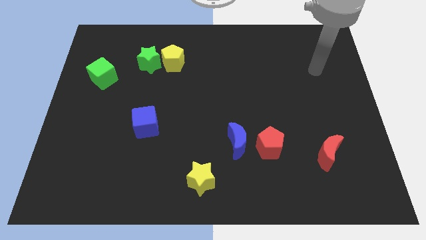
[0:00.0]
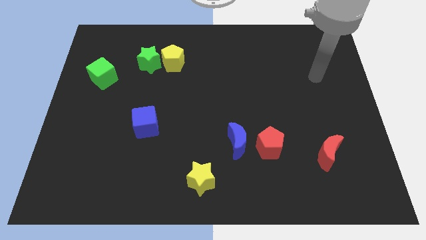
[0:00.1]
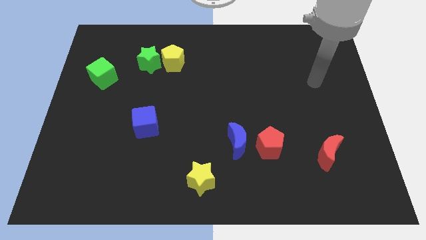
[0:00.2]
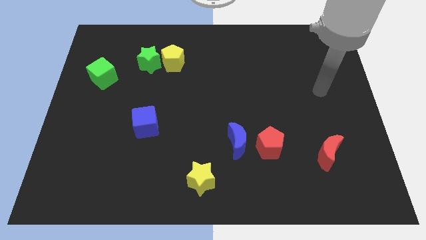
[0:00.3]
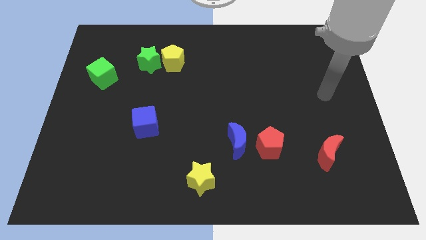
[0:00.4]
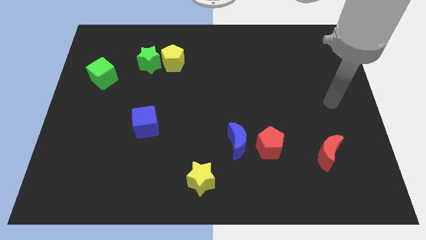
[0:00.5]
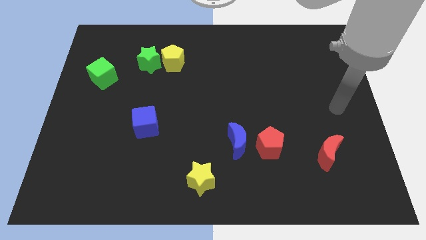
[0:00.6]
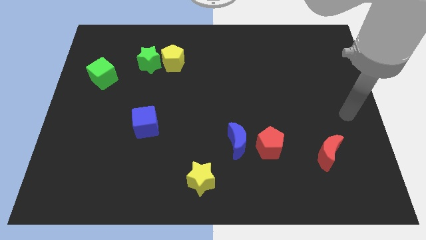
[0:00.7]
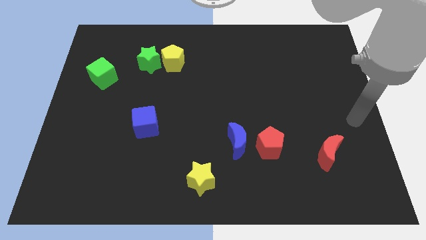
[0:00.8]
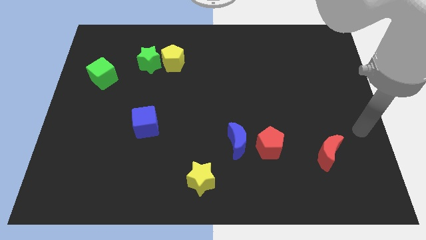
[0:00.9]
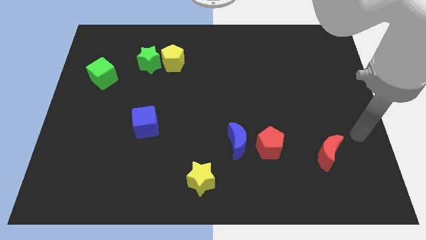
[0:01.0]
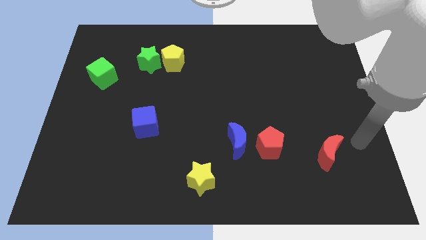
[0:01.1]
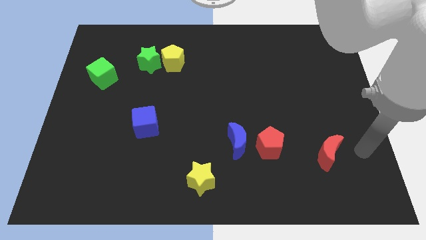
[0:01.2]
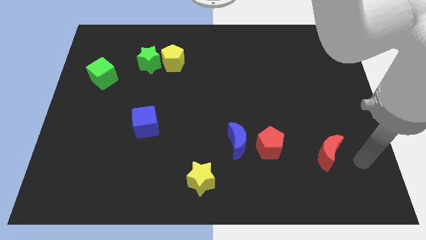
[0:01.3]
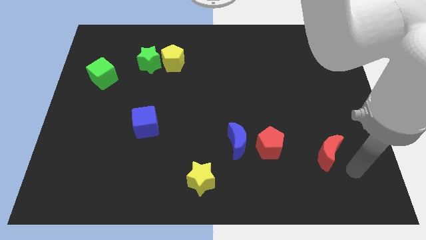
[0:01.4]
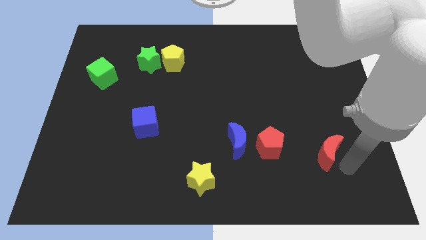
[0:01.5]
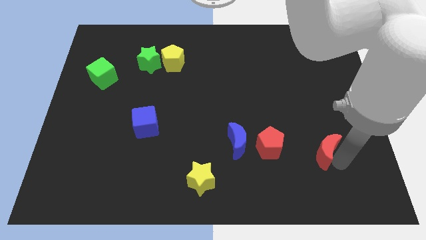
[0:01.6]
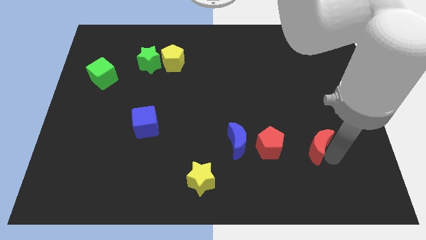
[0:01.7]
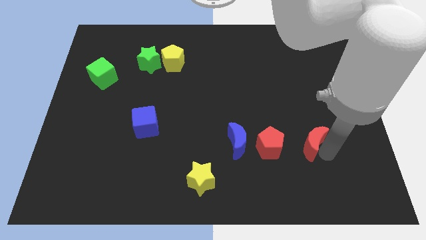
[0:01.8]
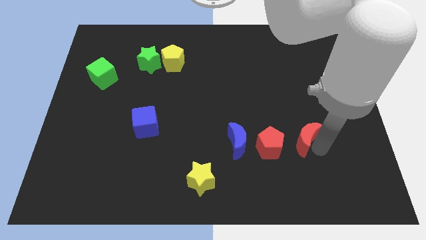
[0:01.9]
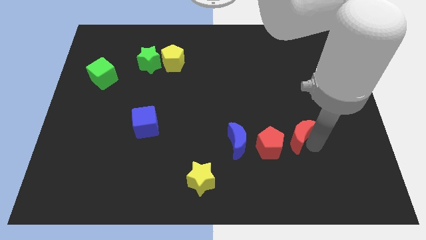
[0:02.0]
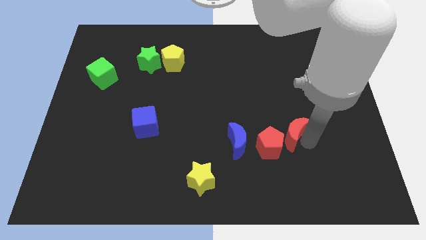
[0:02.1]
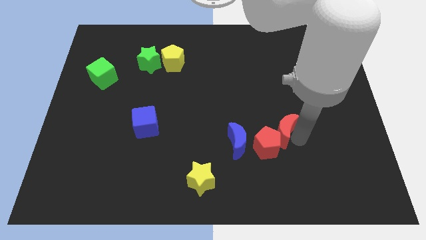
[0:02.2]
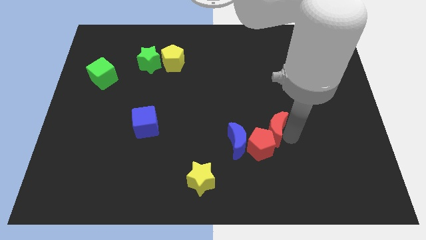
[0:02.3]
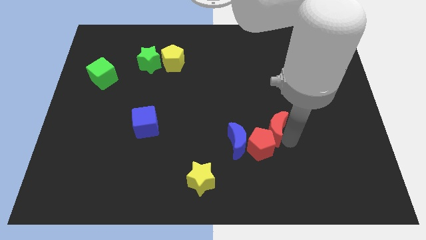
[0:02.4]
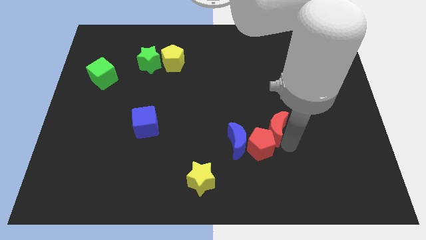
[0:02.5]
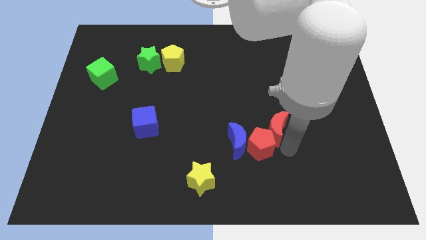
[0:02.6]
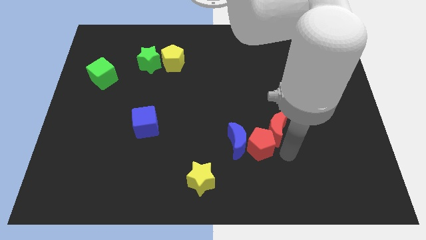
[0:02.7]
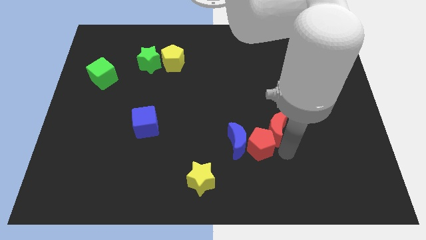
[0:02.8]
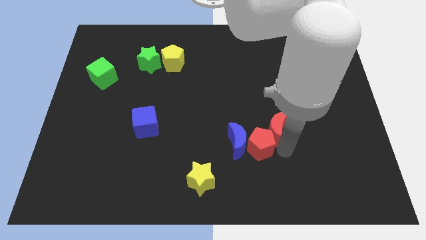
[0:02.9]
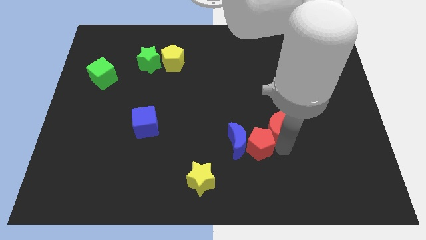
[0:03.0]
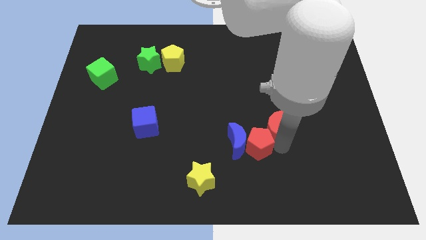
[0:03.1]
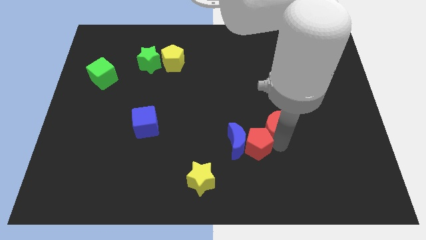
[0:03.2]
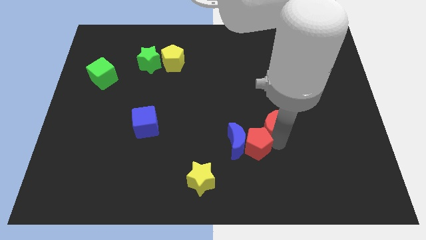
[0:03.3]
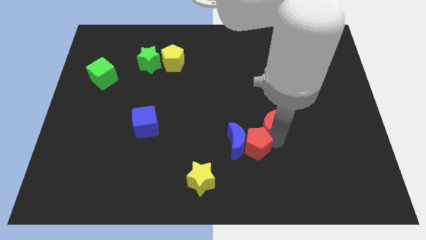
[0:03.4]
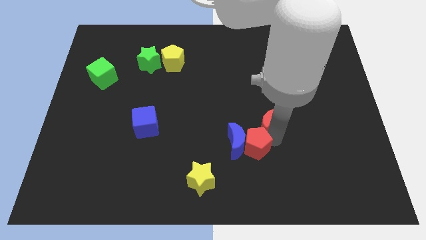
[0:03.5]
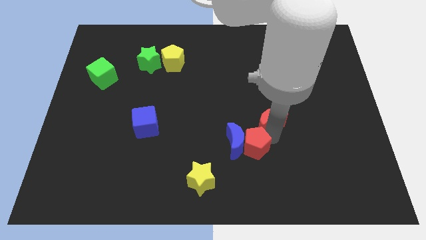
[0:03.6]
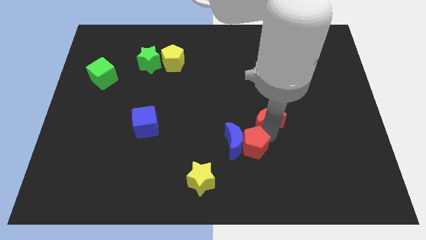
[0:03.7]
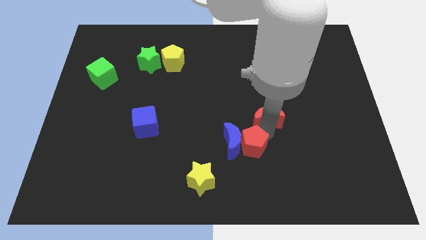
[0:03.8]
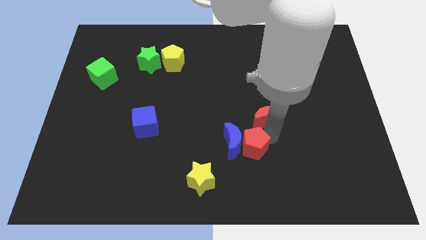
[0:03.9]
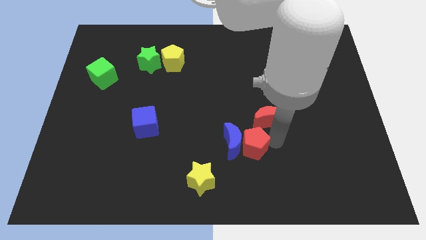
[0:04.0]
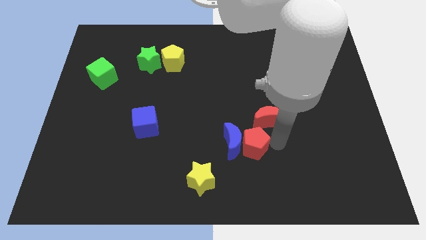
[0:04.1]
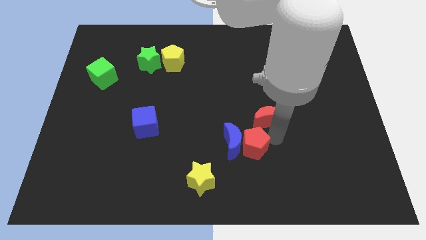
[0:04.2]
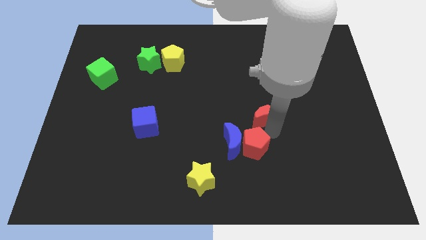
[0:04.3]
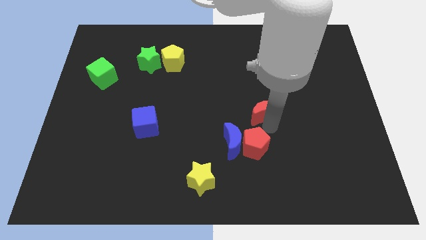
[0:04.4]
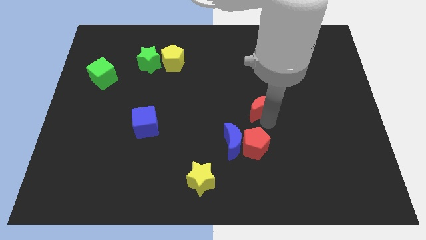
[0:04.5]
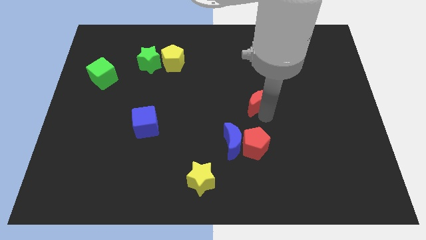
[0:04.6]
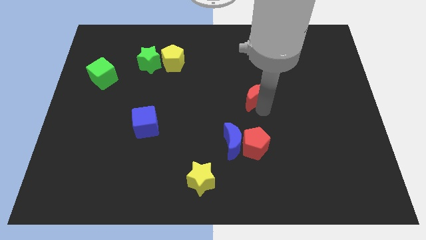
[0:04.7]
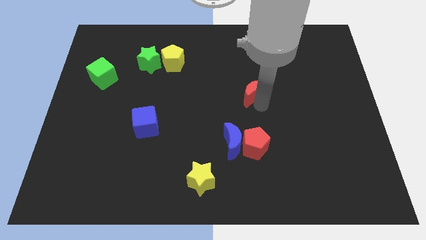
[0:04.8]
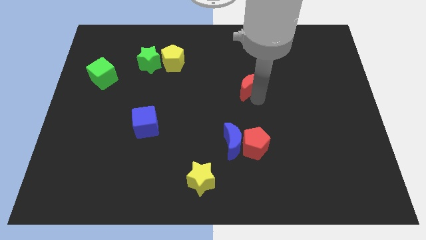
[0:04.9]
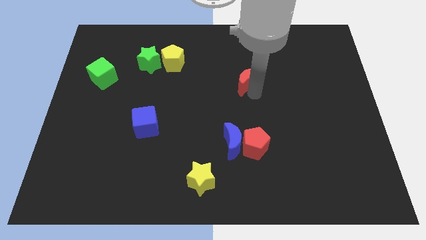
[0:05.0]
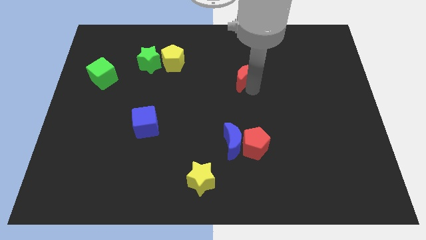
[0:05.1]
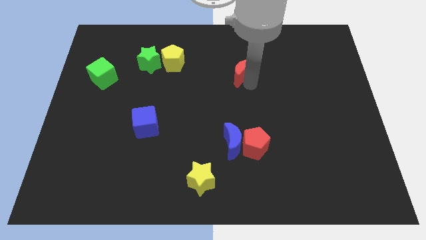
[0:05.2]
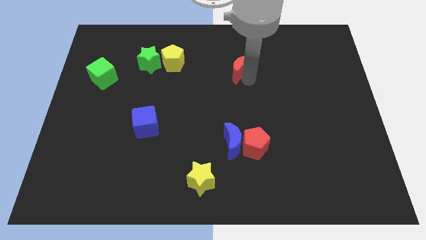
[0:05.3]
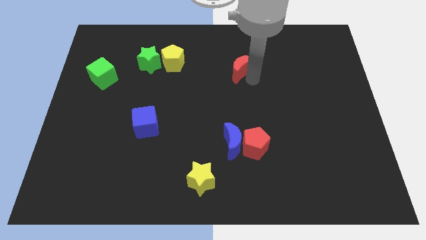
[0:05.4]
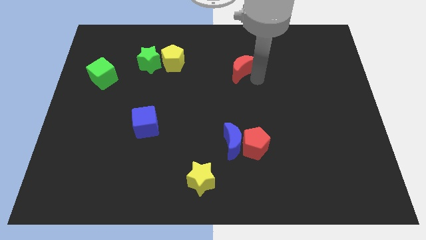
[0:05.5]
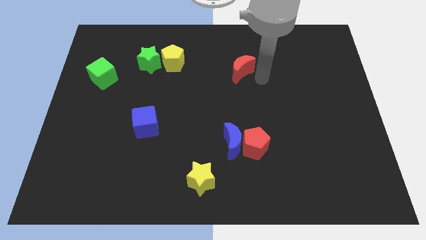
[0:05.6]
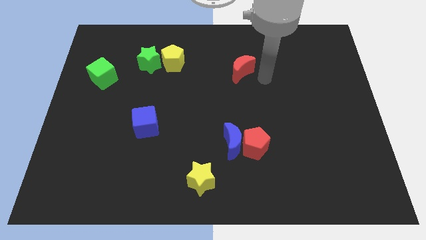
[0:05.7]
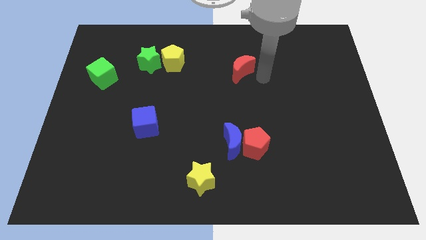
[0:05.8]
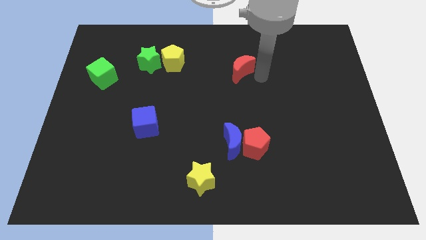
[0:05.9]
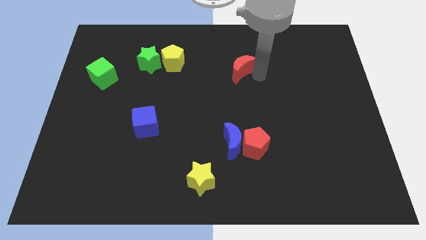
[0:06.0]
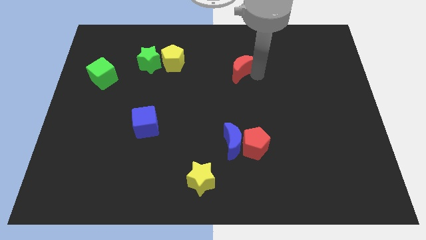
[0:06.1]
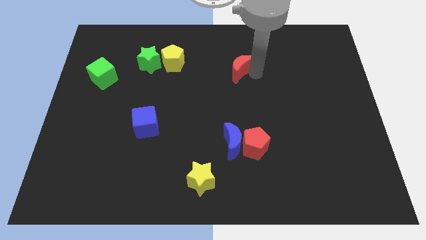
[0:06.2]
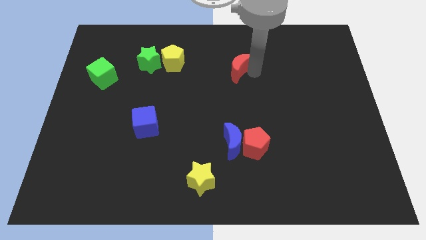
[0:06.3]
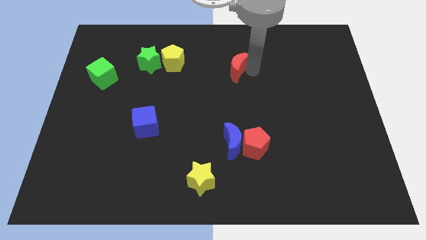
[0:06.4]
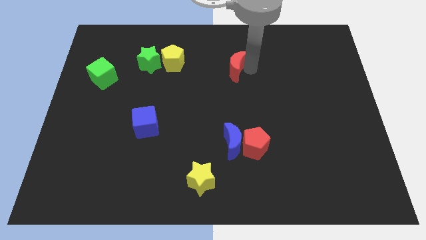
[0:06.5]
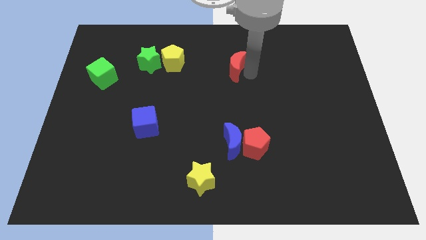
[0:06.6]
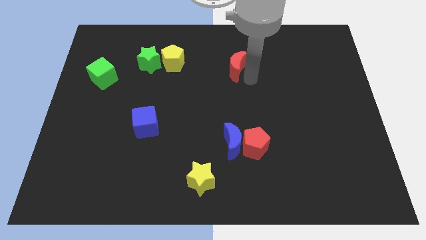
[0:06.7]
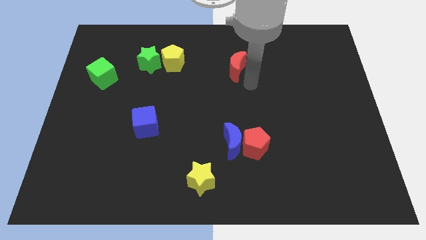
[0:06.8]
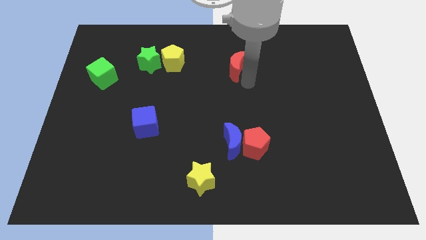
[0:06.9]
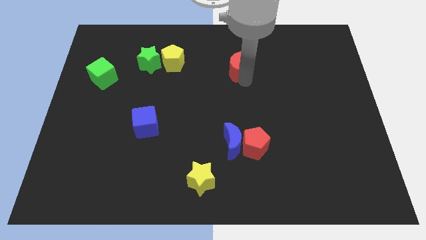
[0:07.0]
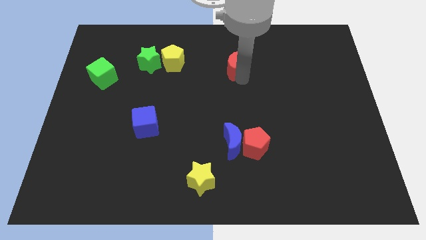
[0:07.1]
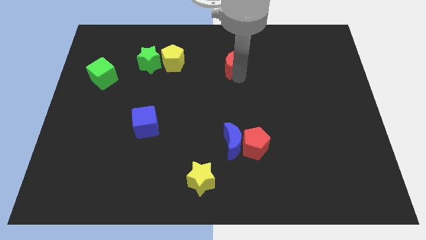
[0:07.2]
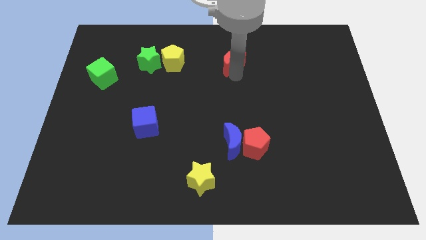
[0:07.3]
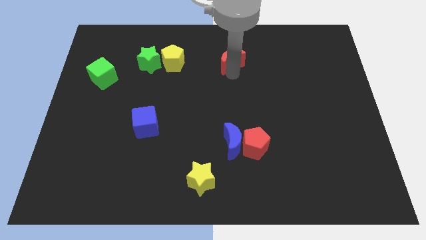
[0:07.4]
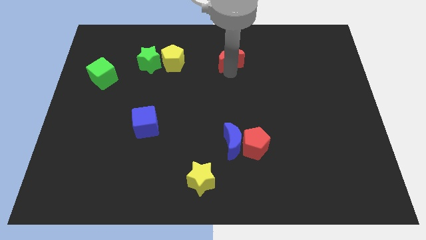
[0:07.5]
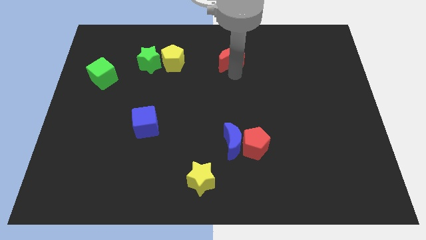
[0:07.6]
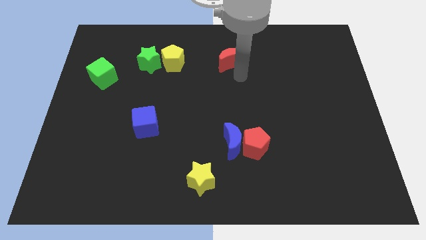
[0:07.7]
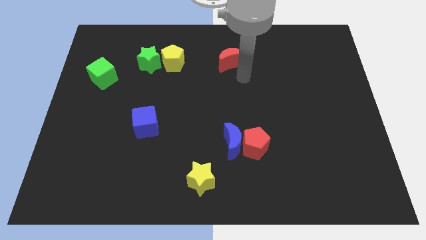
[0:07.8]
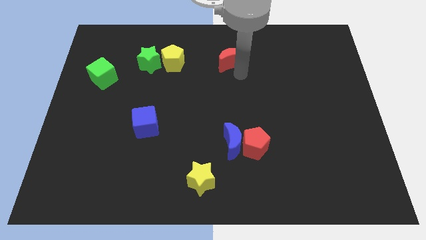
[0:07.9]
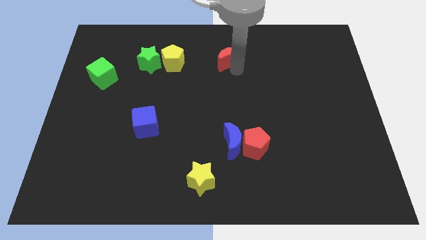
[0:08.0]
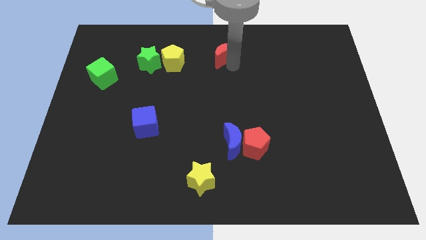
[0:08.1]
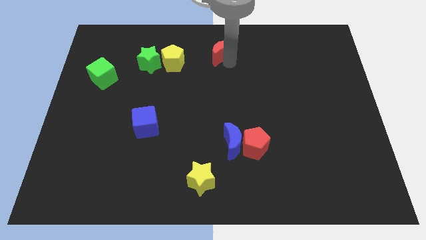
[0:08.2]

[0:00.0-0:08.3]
push the red moon to the top side
